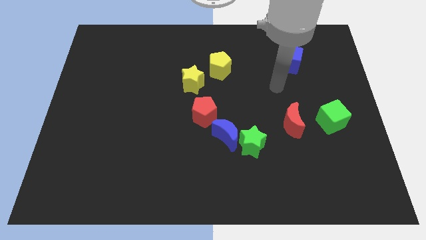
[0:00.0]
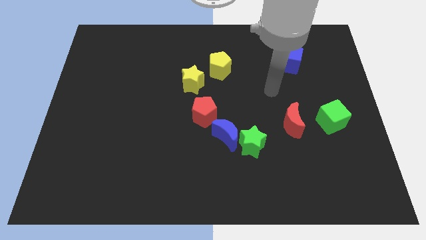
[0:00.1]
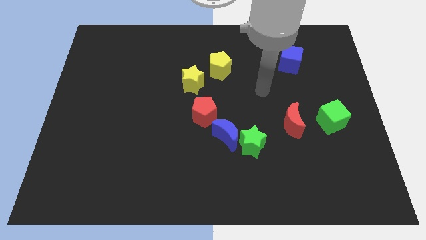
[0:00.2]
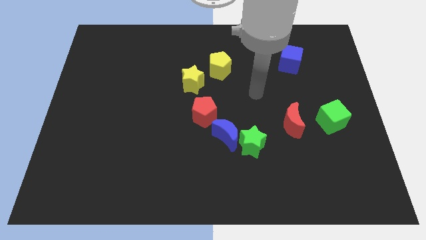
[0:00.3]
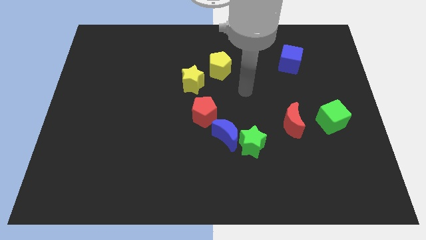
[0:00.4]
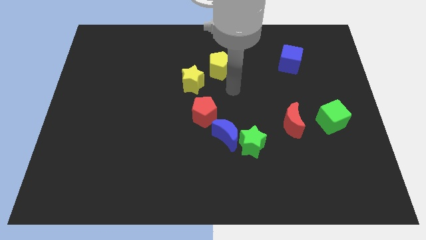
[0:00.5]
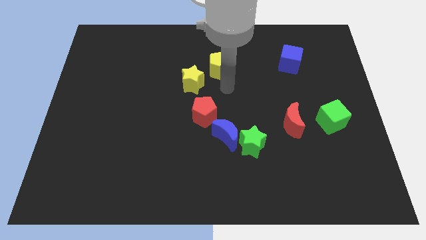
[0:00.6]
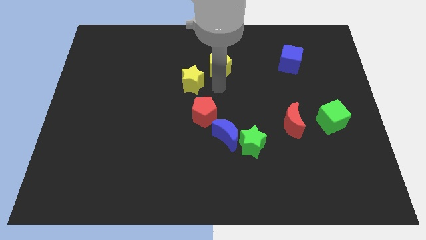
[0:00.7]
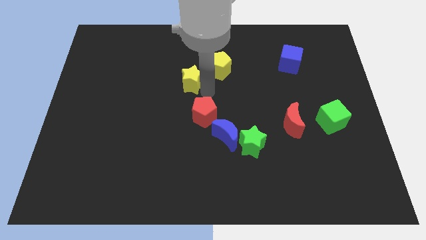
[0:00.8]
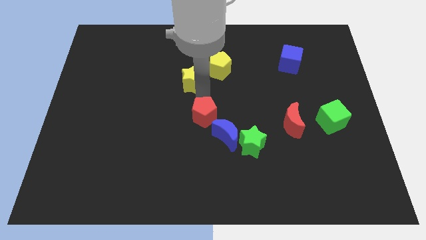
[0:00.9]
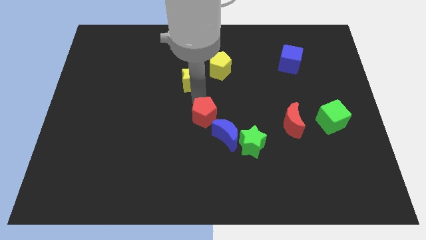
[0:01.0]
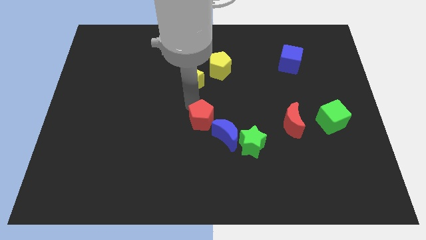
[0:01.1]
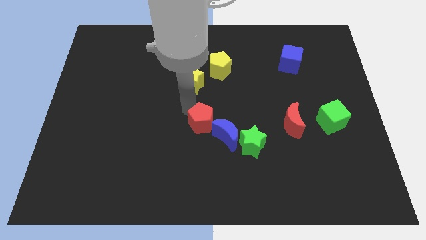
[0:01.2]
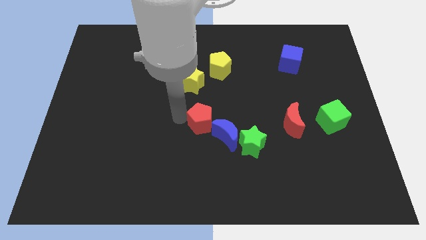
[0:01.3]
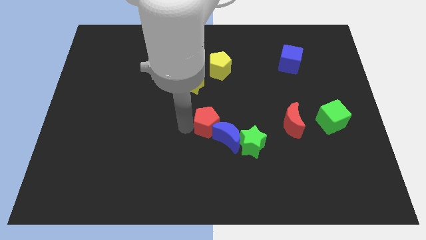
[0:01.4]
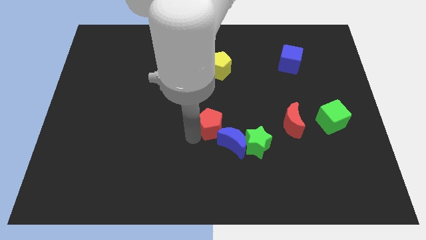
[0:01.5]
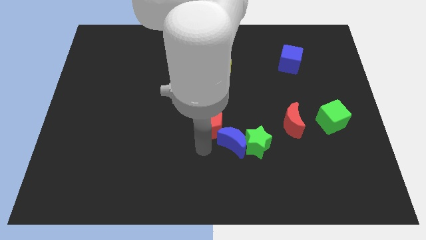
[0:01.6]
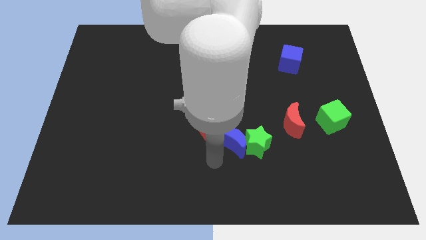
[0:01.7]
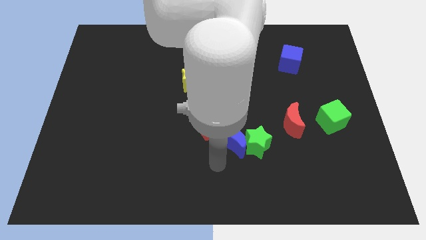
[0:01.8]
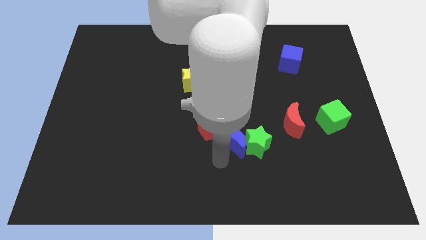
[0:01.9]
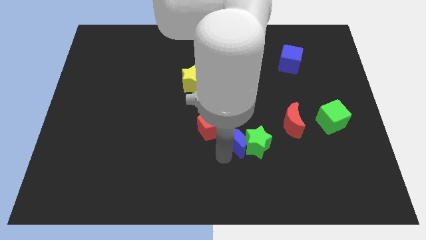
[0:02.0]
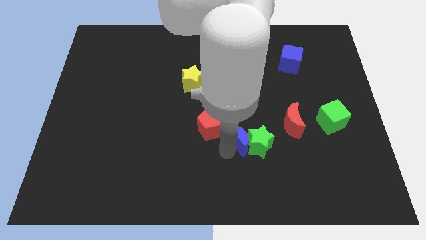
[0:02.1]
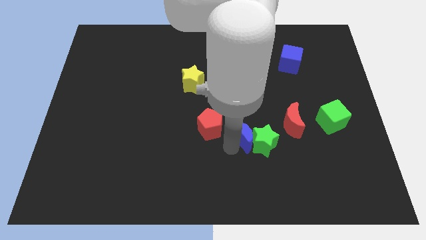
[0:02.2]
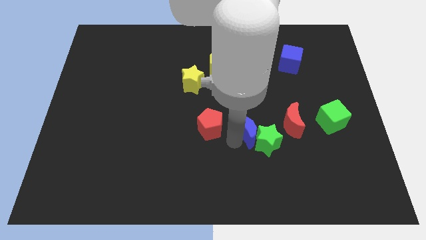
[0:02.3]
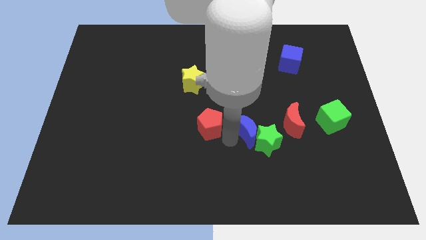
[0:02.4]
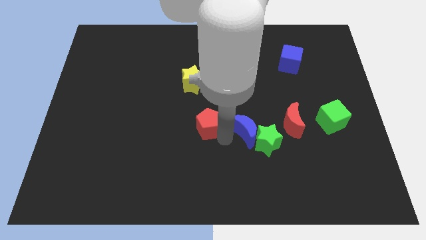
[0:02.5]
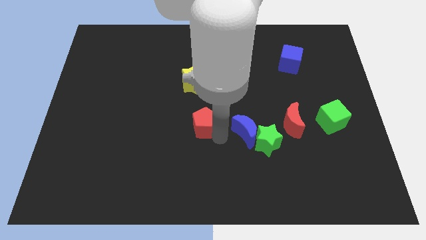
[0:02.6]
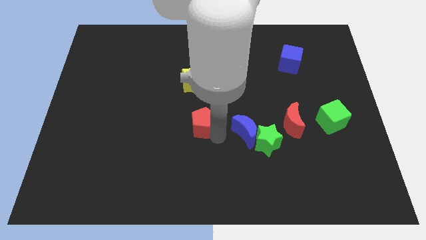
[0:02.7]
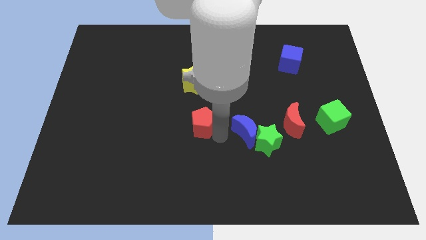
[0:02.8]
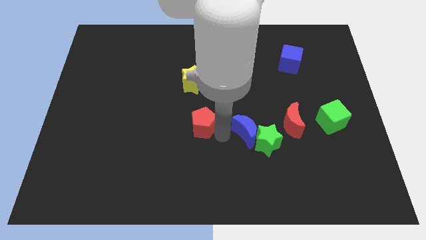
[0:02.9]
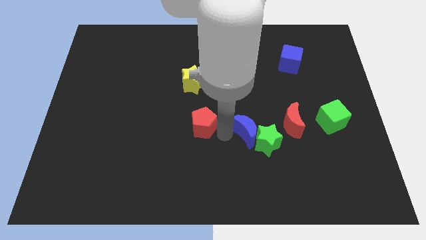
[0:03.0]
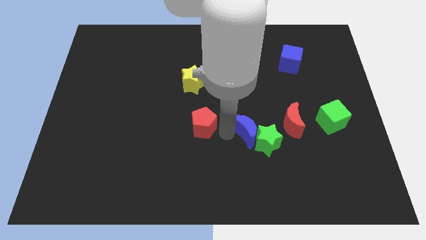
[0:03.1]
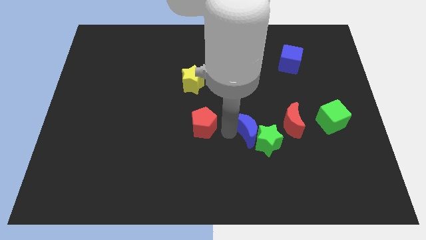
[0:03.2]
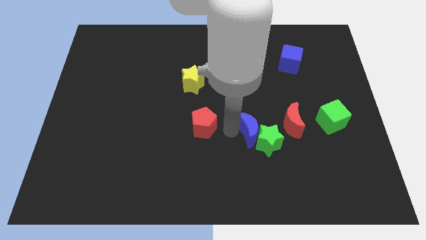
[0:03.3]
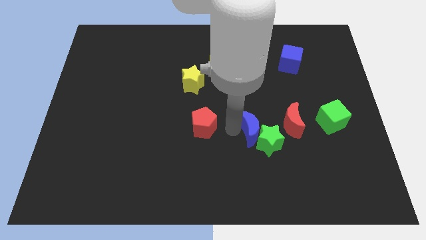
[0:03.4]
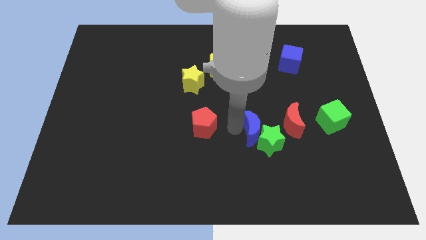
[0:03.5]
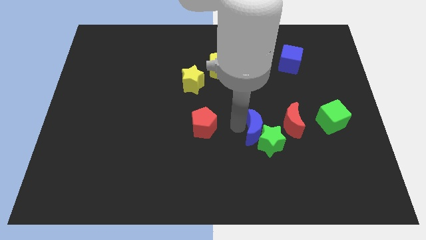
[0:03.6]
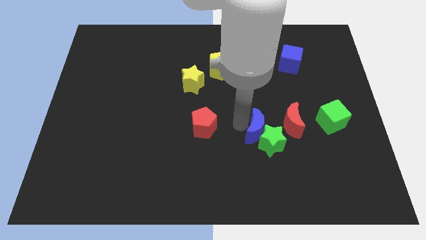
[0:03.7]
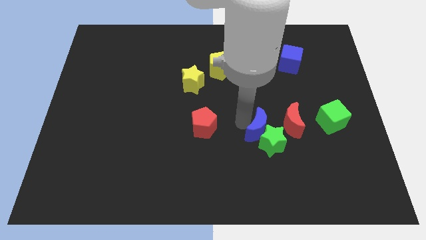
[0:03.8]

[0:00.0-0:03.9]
slightly move the blue moon to the right

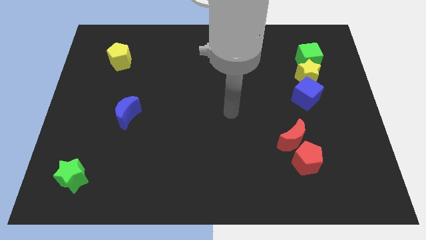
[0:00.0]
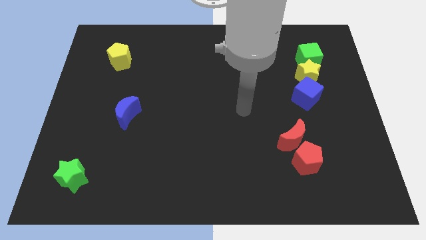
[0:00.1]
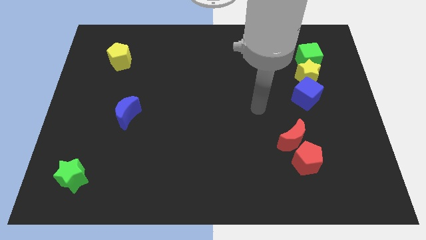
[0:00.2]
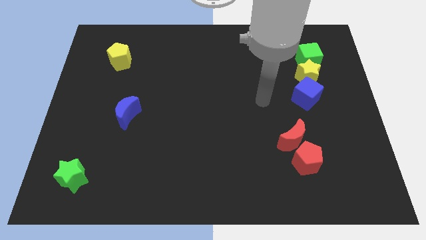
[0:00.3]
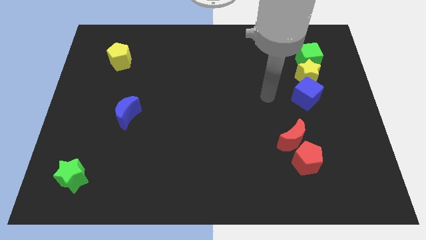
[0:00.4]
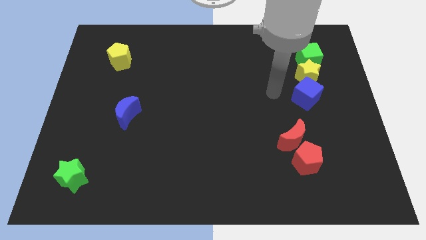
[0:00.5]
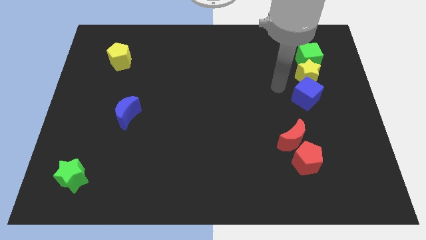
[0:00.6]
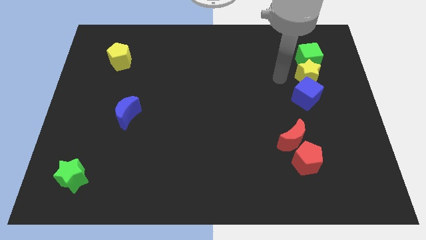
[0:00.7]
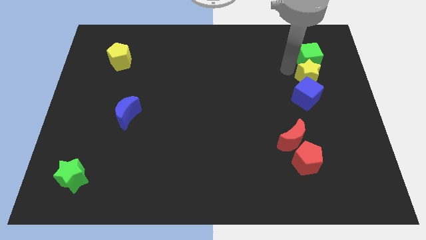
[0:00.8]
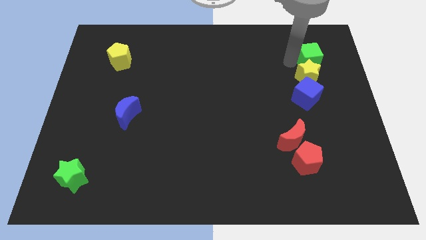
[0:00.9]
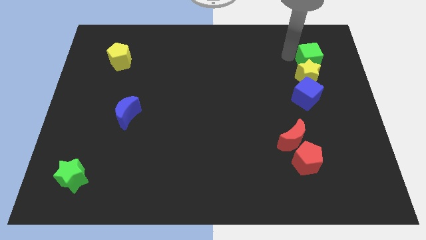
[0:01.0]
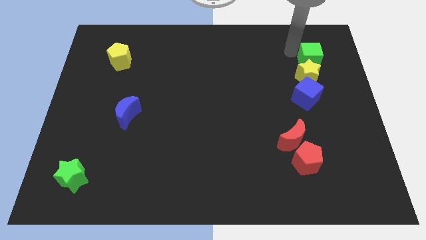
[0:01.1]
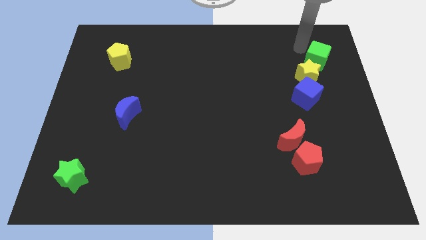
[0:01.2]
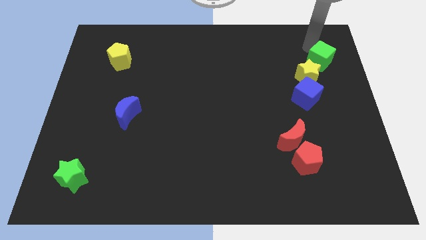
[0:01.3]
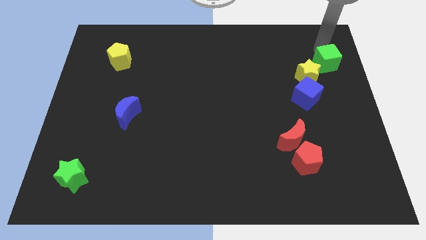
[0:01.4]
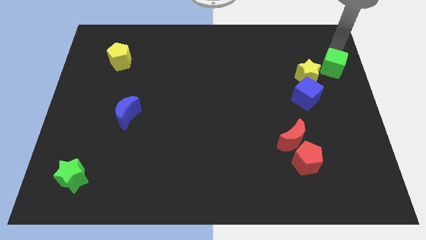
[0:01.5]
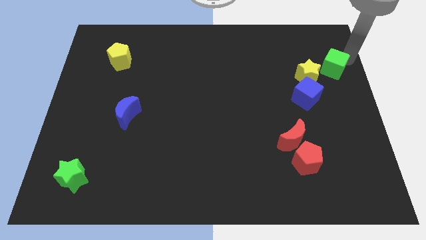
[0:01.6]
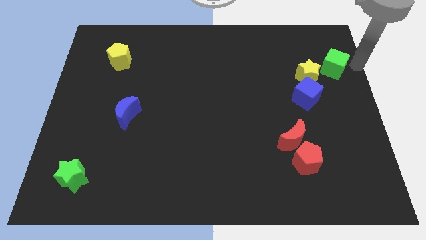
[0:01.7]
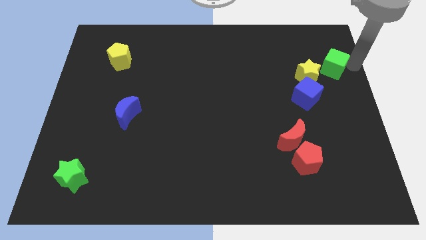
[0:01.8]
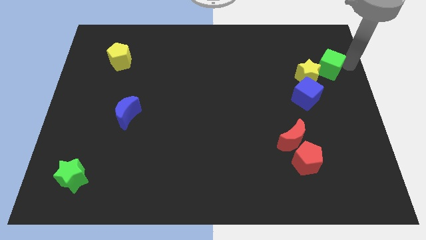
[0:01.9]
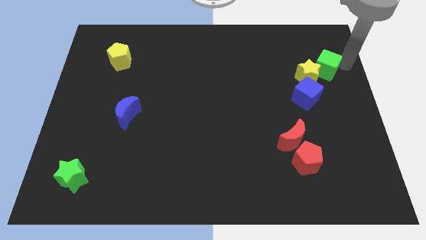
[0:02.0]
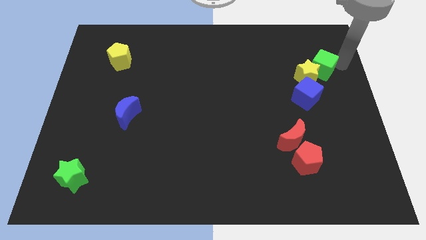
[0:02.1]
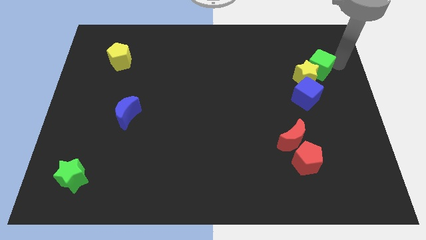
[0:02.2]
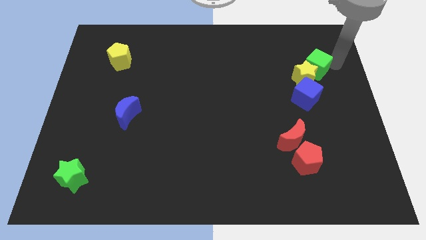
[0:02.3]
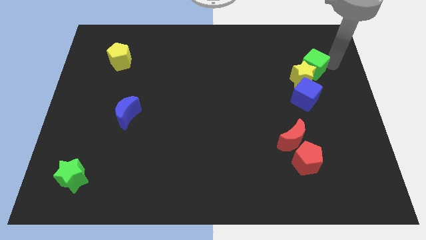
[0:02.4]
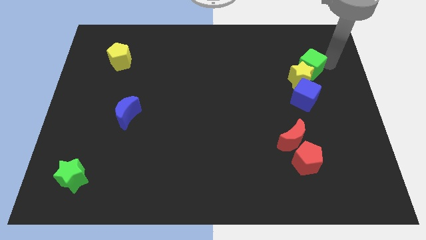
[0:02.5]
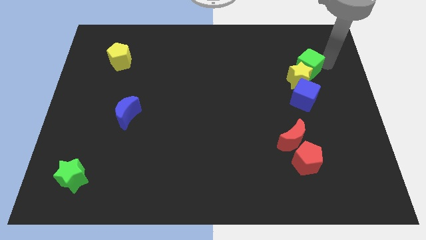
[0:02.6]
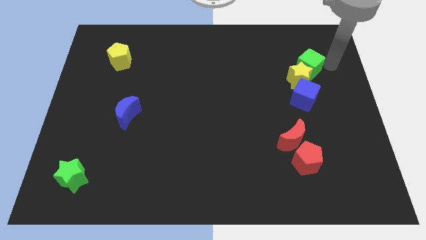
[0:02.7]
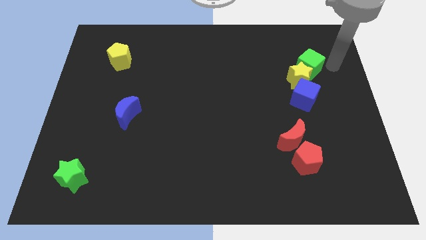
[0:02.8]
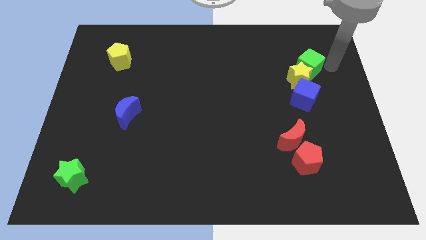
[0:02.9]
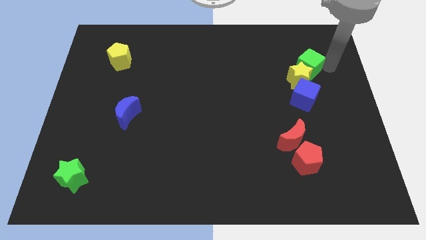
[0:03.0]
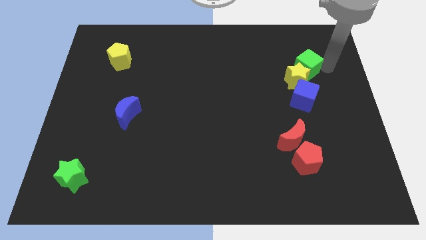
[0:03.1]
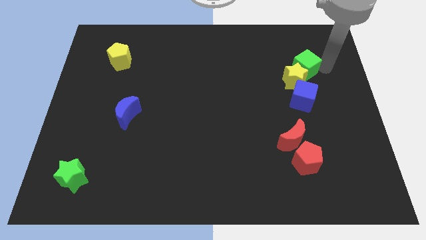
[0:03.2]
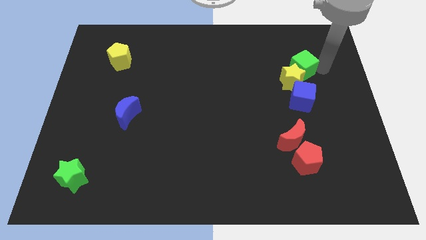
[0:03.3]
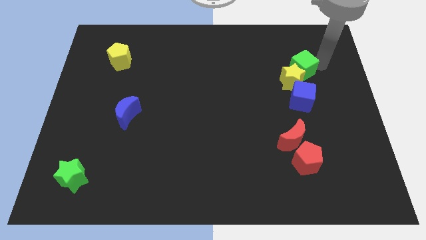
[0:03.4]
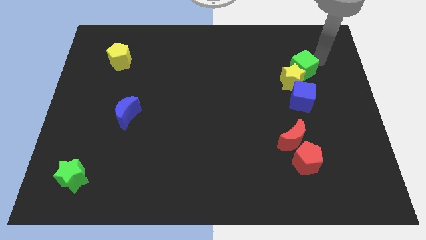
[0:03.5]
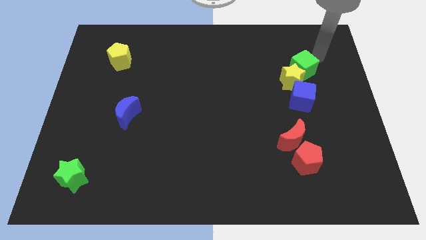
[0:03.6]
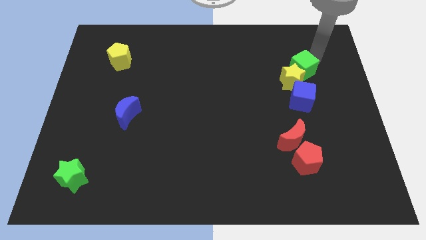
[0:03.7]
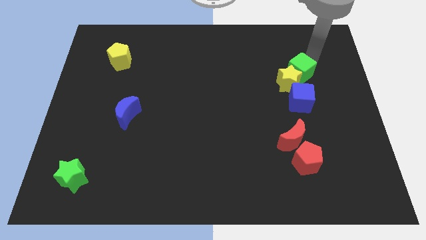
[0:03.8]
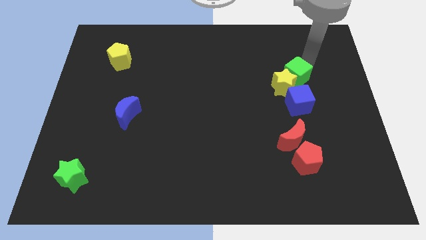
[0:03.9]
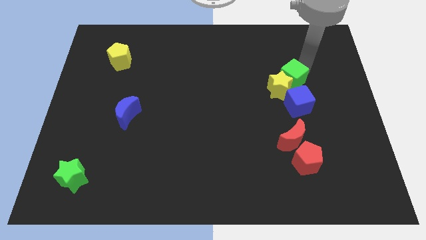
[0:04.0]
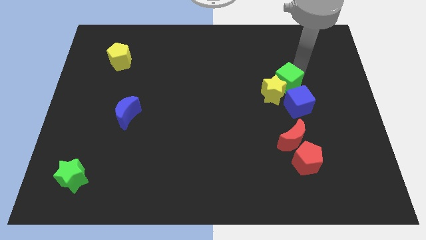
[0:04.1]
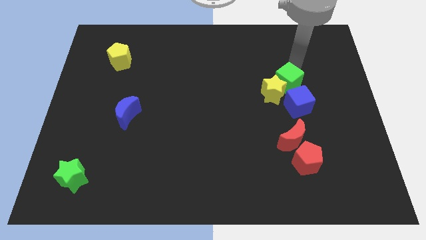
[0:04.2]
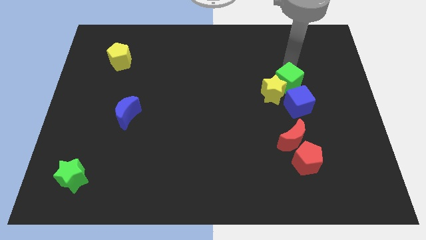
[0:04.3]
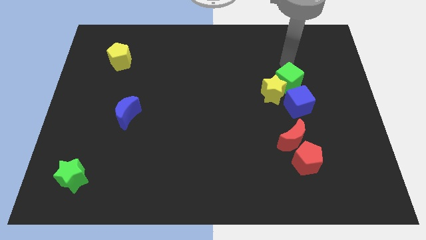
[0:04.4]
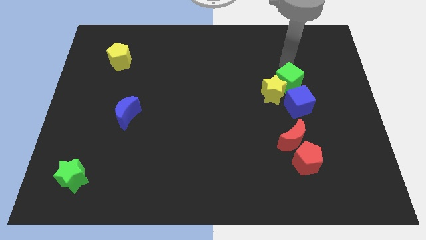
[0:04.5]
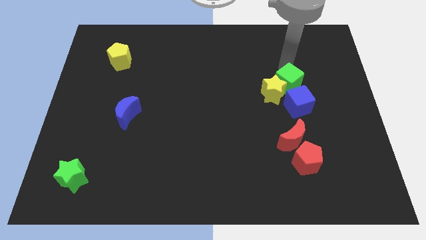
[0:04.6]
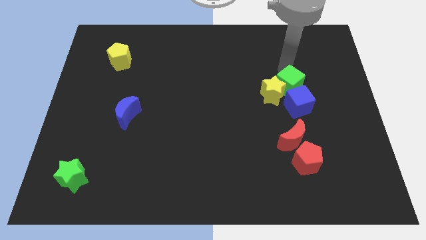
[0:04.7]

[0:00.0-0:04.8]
push the green cube somewhat downwards
